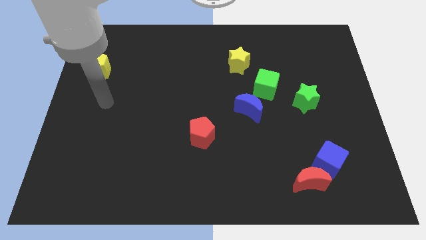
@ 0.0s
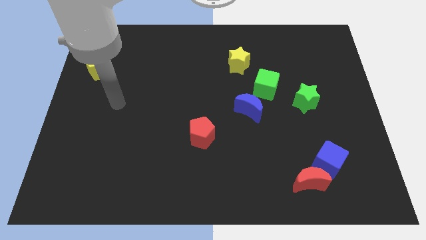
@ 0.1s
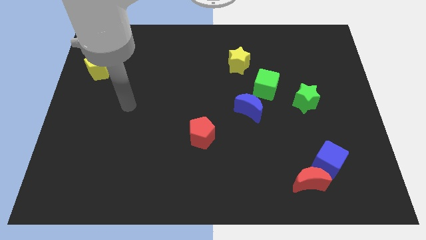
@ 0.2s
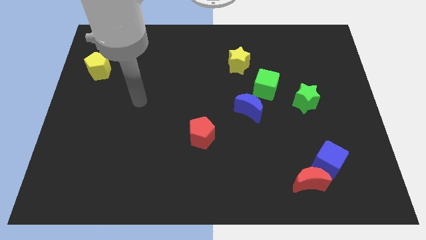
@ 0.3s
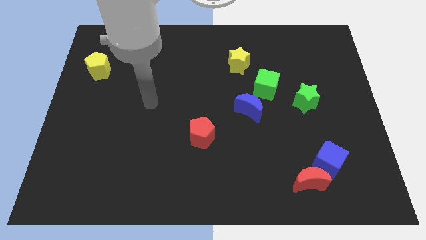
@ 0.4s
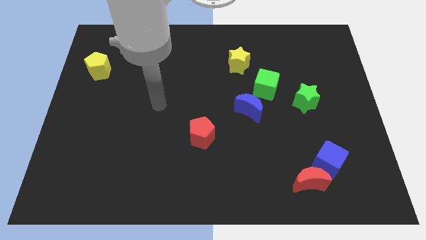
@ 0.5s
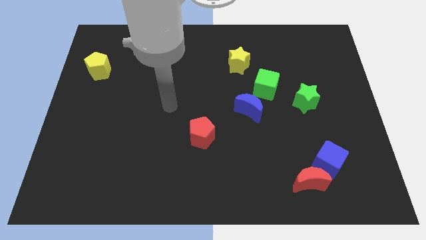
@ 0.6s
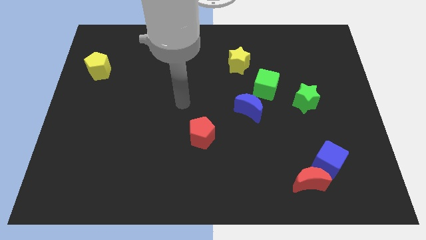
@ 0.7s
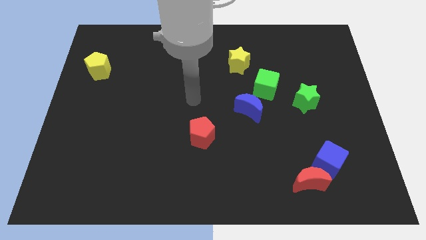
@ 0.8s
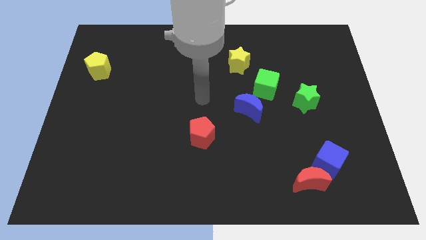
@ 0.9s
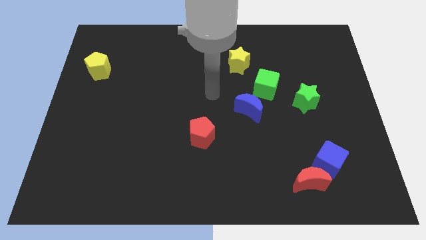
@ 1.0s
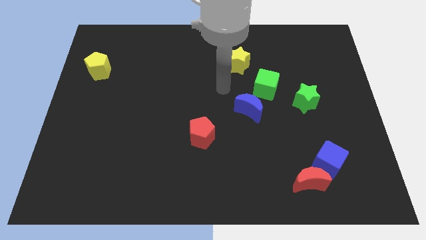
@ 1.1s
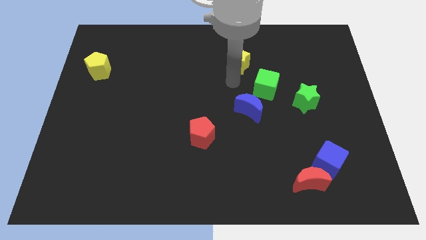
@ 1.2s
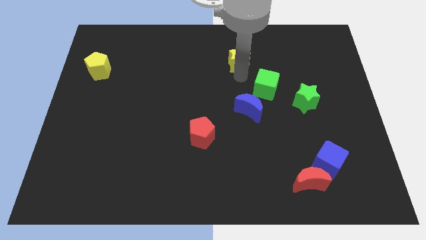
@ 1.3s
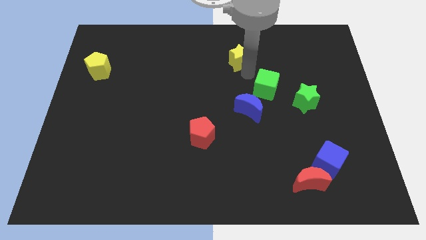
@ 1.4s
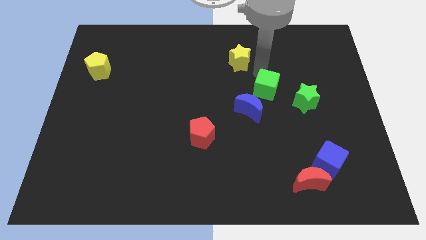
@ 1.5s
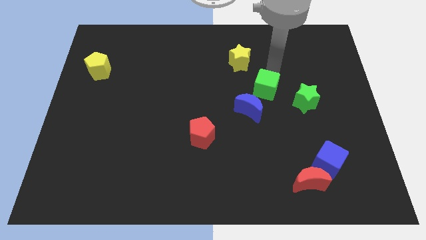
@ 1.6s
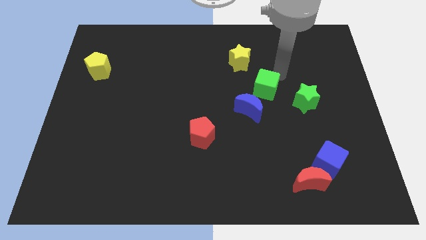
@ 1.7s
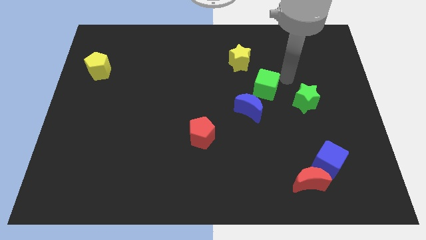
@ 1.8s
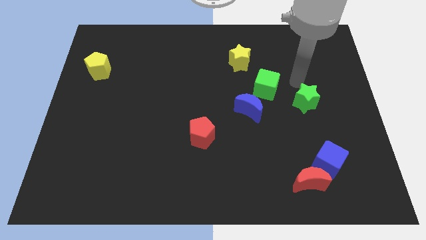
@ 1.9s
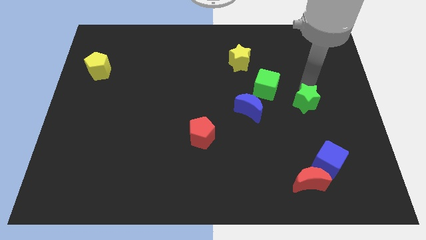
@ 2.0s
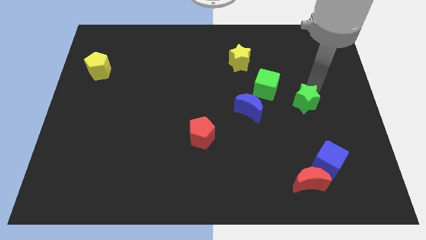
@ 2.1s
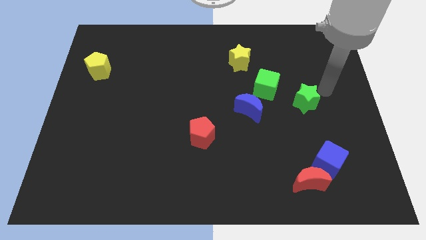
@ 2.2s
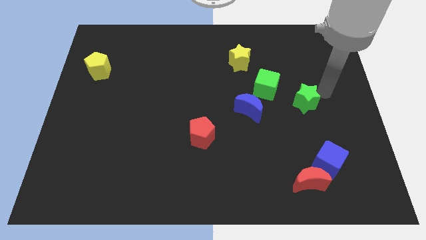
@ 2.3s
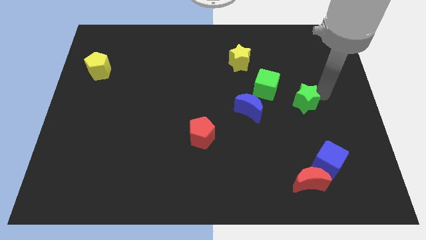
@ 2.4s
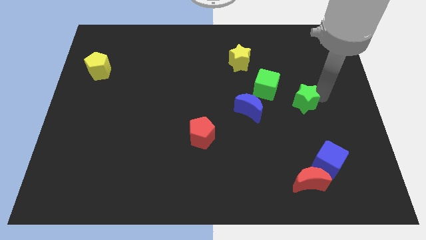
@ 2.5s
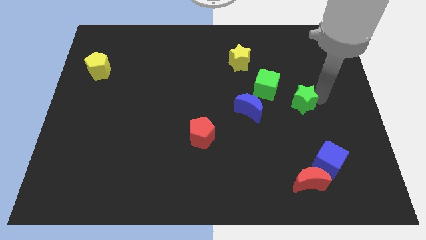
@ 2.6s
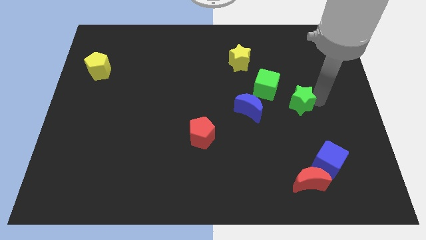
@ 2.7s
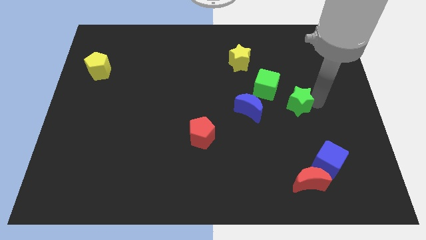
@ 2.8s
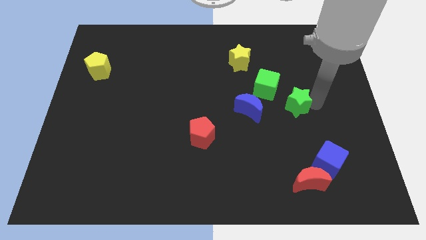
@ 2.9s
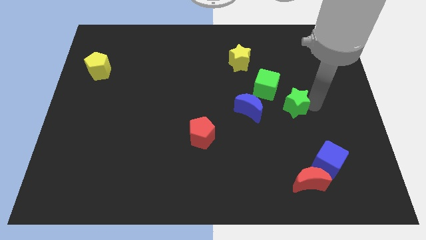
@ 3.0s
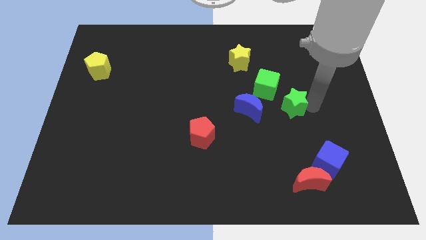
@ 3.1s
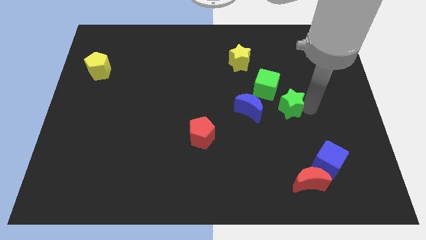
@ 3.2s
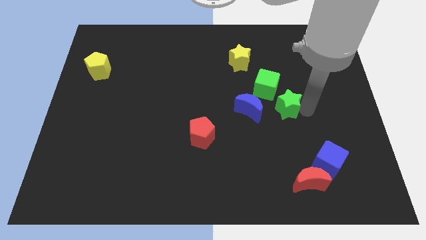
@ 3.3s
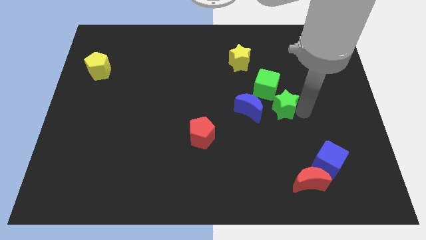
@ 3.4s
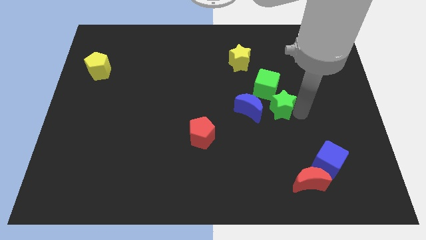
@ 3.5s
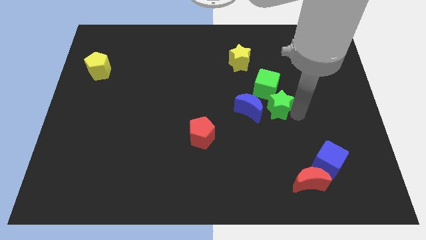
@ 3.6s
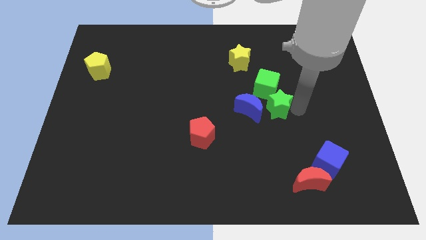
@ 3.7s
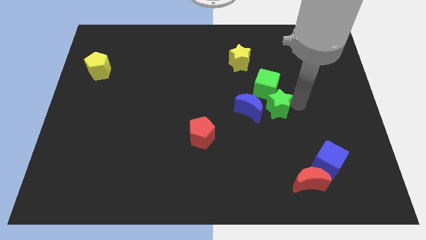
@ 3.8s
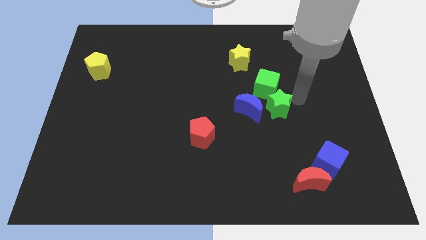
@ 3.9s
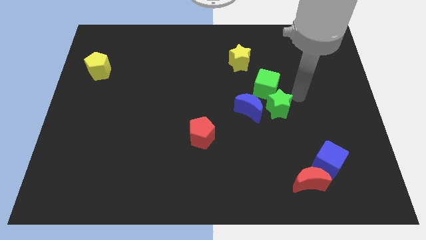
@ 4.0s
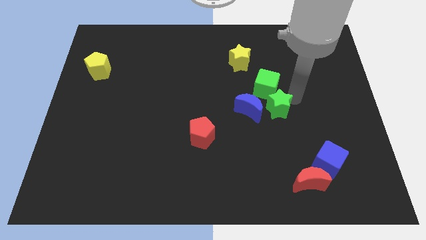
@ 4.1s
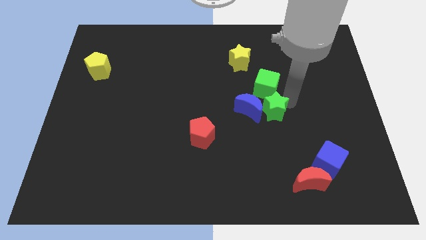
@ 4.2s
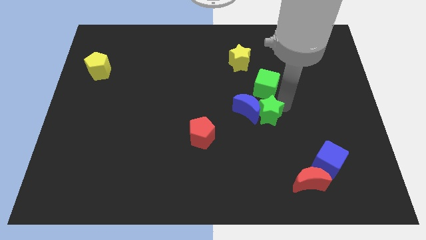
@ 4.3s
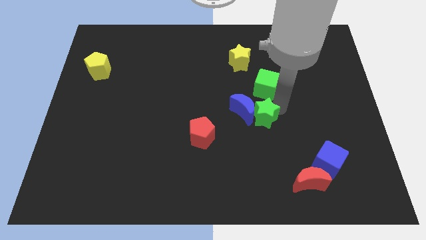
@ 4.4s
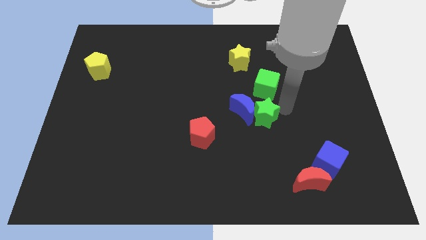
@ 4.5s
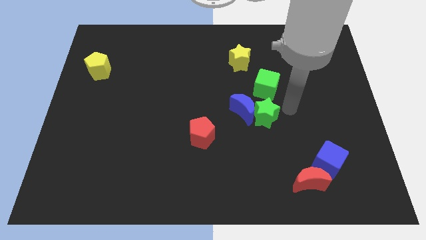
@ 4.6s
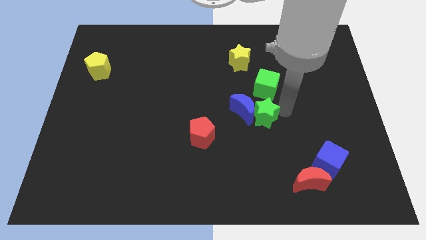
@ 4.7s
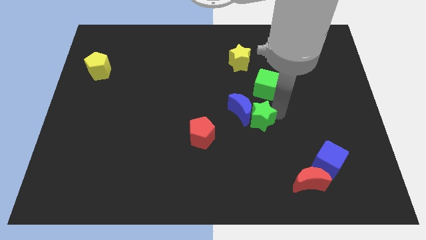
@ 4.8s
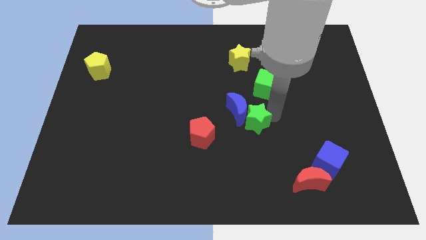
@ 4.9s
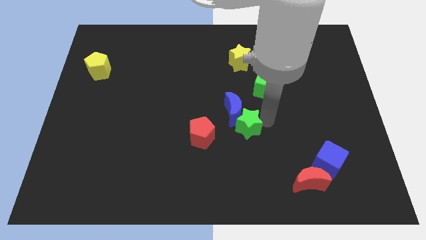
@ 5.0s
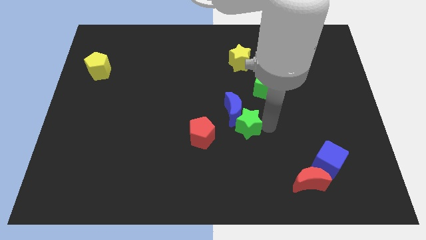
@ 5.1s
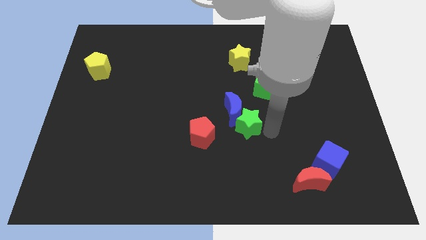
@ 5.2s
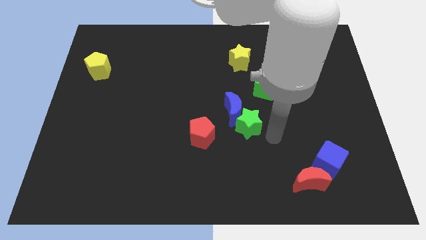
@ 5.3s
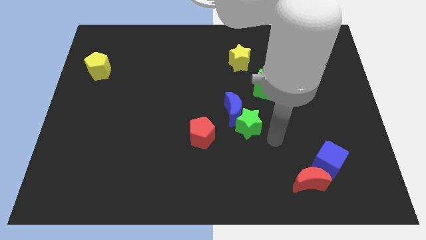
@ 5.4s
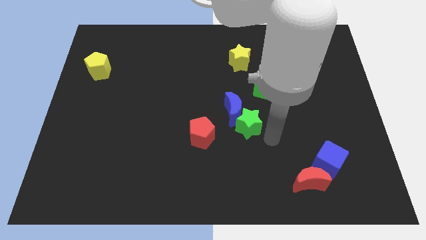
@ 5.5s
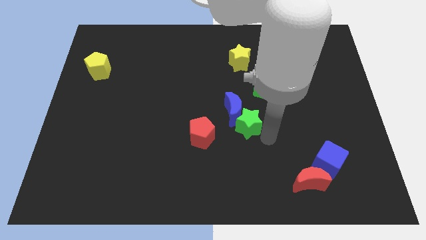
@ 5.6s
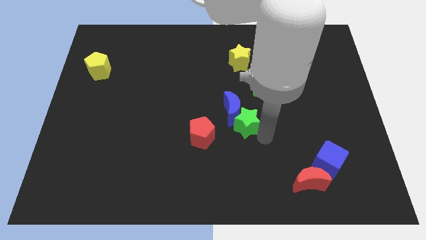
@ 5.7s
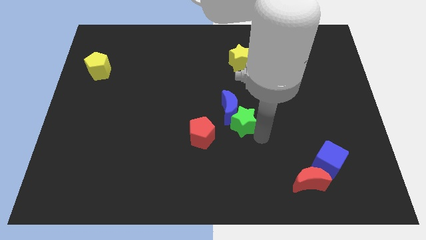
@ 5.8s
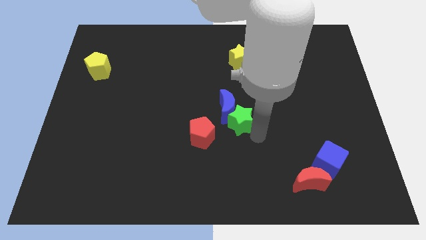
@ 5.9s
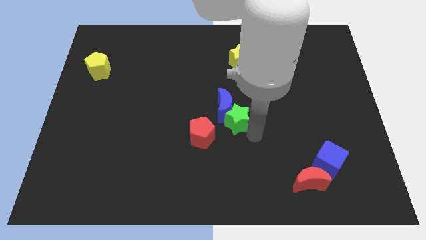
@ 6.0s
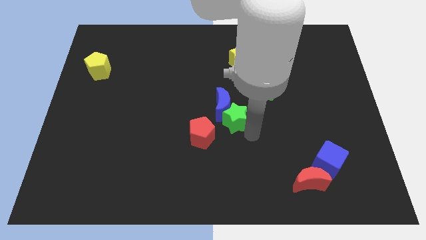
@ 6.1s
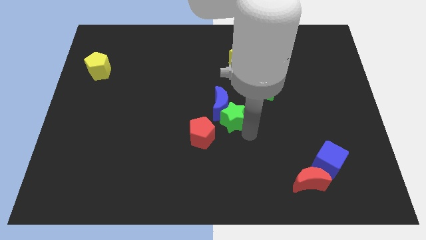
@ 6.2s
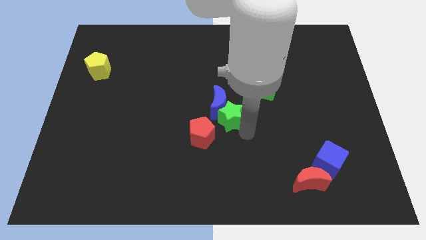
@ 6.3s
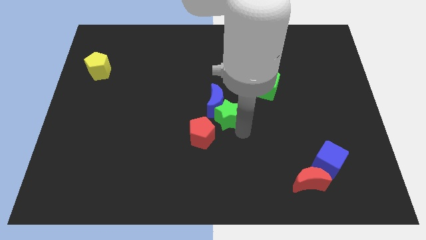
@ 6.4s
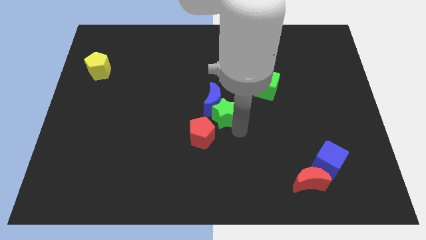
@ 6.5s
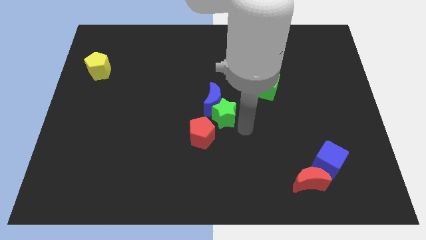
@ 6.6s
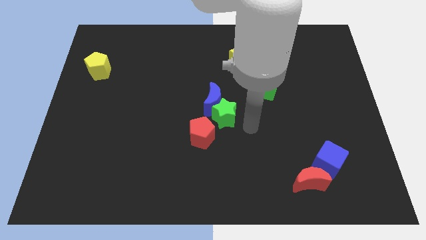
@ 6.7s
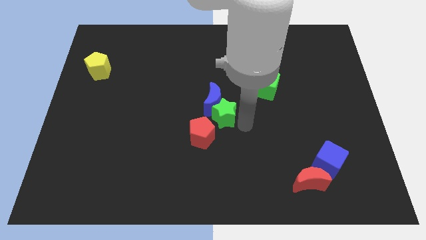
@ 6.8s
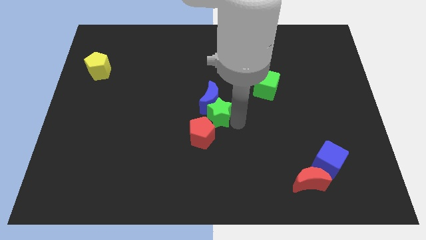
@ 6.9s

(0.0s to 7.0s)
slide the green star left

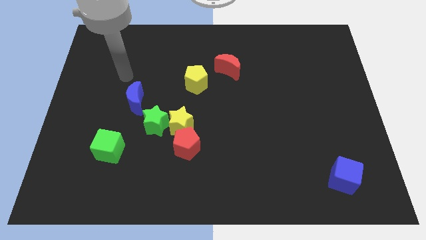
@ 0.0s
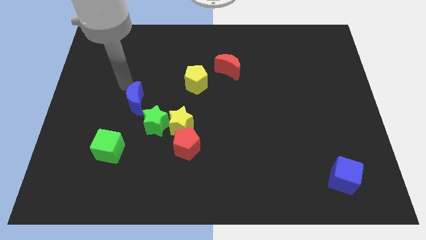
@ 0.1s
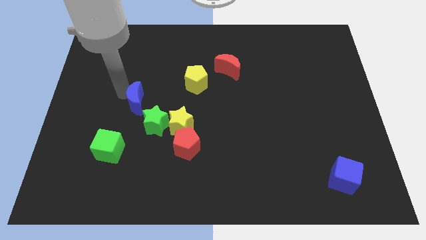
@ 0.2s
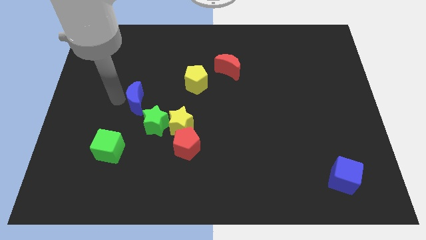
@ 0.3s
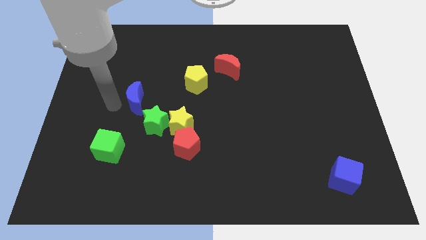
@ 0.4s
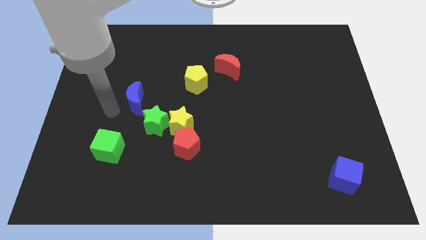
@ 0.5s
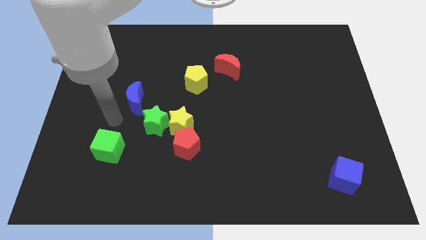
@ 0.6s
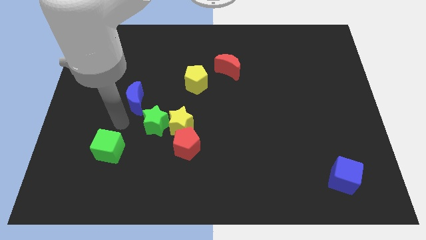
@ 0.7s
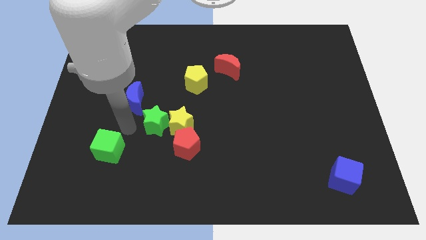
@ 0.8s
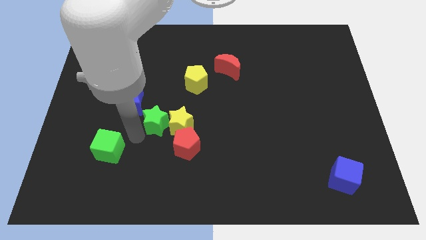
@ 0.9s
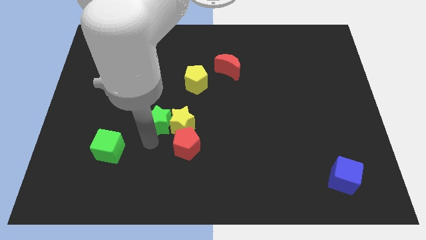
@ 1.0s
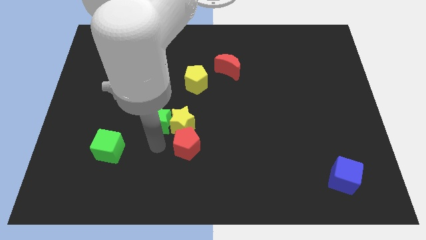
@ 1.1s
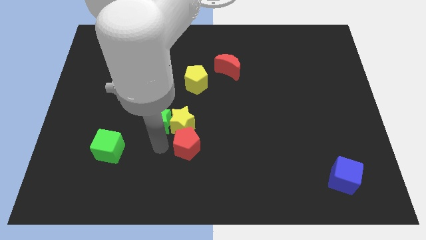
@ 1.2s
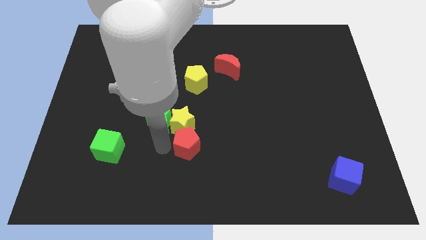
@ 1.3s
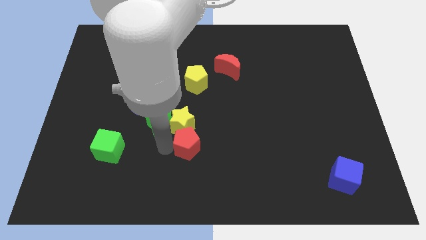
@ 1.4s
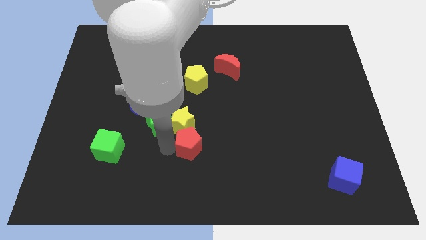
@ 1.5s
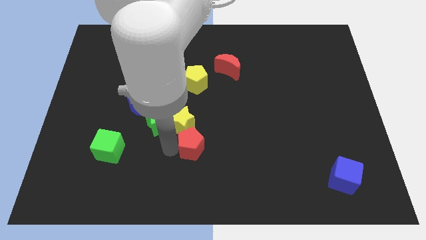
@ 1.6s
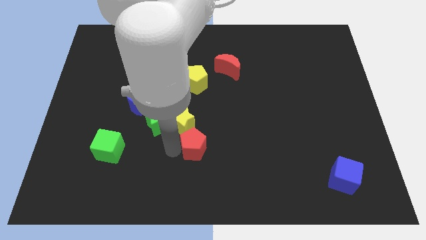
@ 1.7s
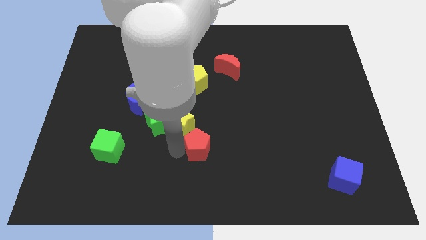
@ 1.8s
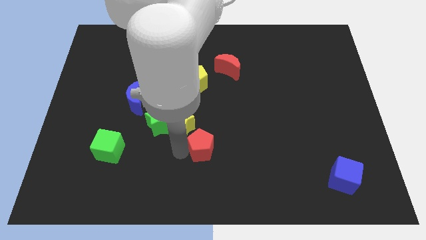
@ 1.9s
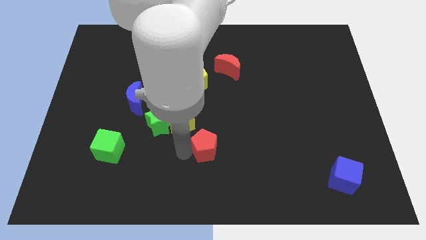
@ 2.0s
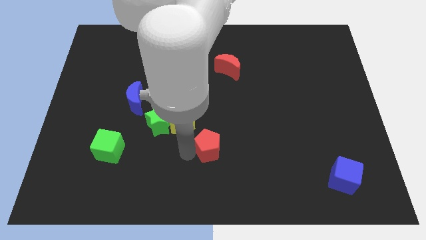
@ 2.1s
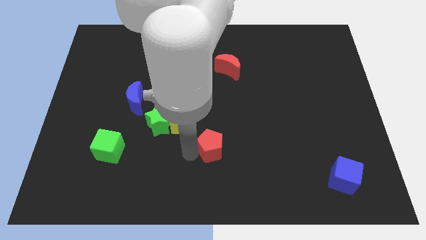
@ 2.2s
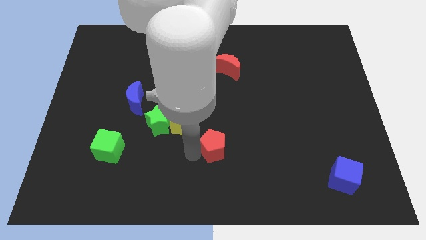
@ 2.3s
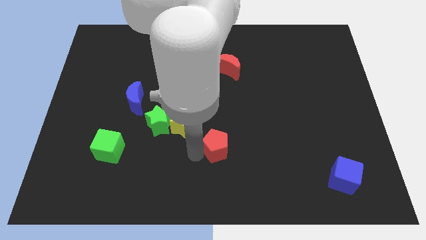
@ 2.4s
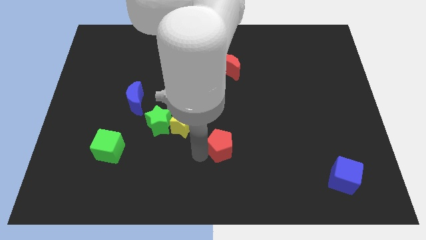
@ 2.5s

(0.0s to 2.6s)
slightly slide the red pentagon to the right
